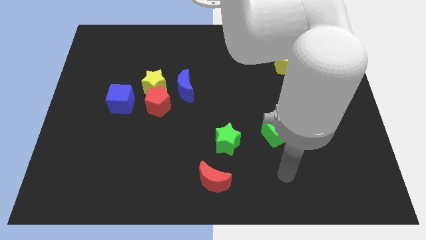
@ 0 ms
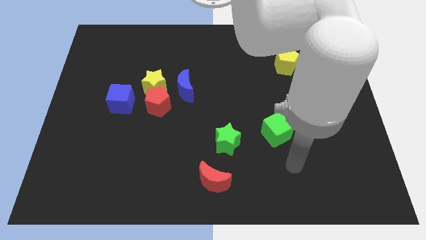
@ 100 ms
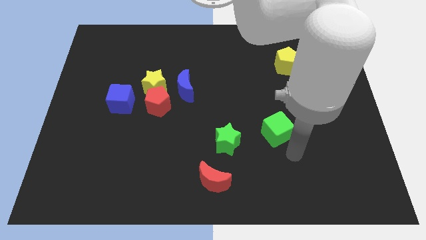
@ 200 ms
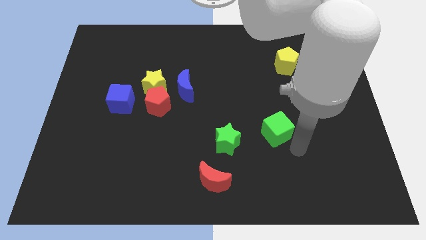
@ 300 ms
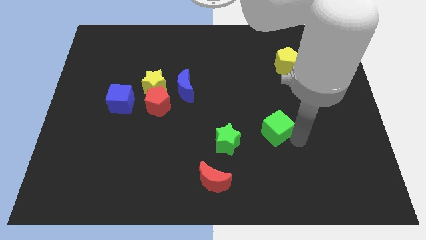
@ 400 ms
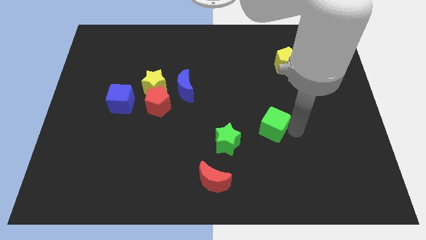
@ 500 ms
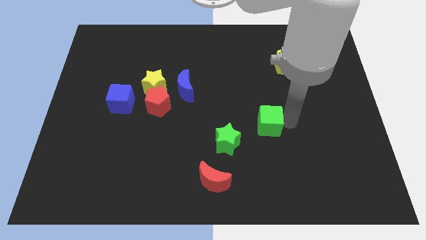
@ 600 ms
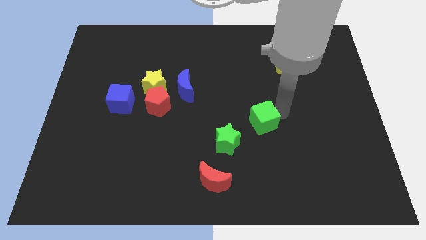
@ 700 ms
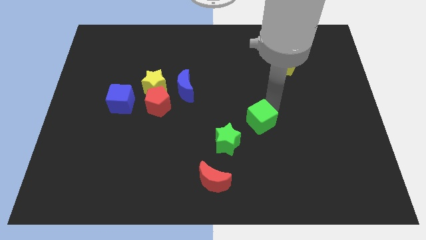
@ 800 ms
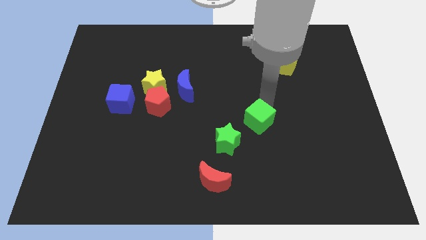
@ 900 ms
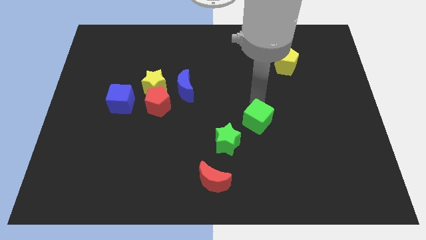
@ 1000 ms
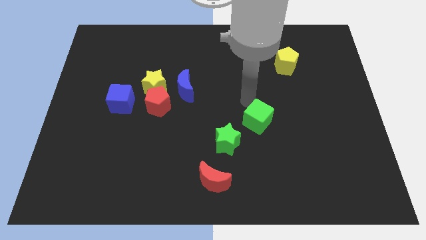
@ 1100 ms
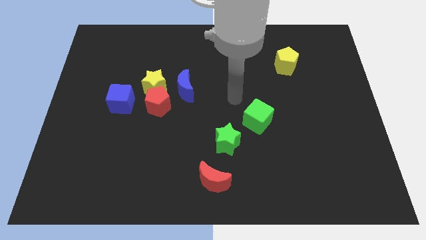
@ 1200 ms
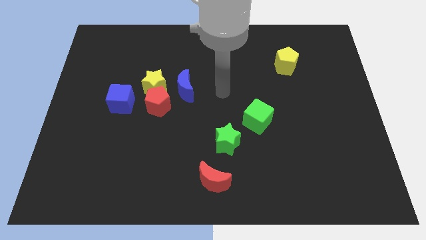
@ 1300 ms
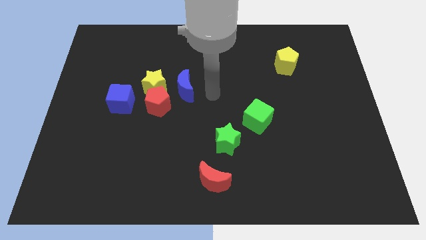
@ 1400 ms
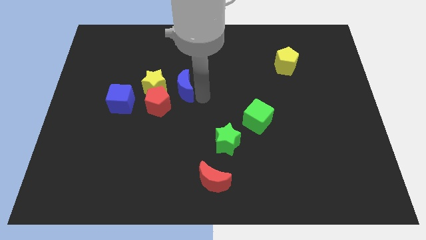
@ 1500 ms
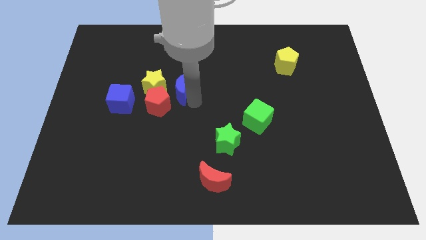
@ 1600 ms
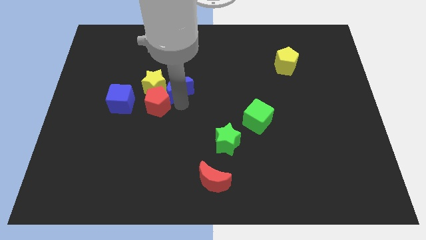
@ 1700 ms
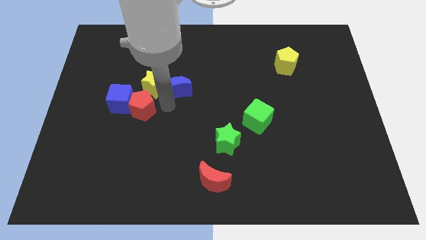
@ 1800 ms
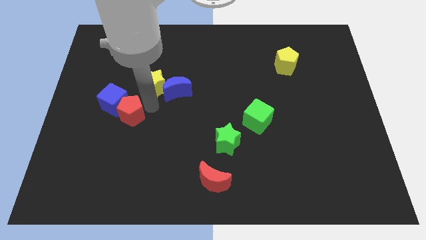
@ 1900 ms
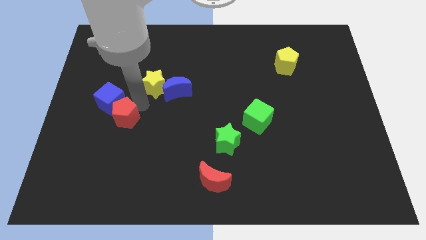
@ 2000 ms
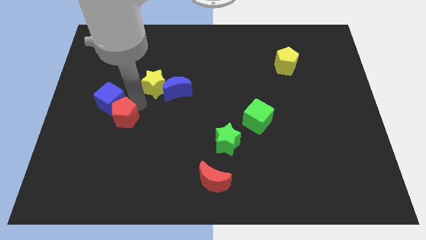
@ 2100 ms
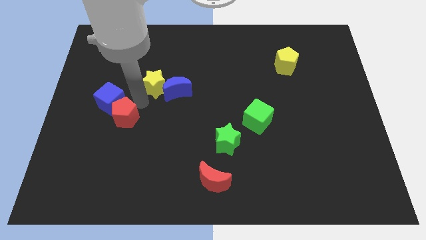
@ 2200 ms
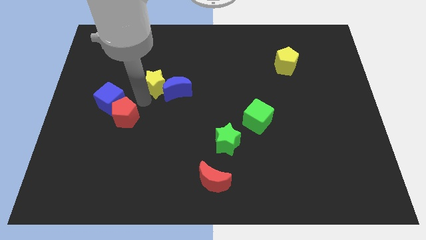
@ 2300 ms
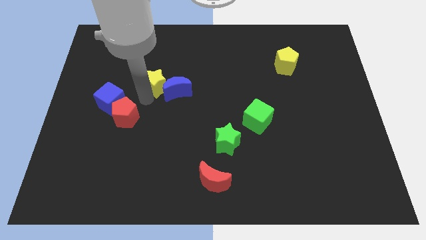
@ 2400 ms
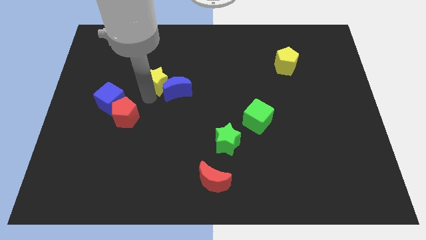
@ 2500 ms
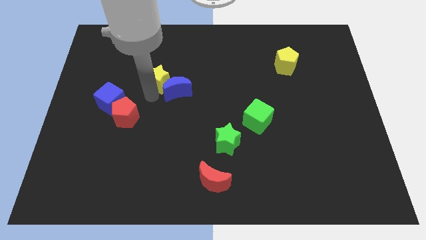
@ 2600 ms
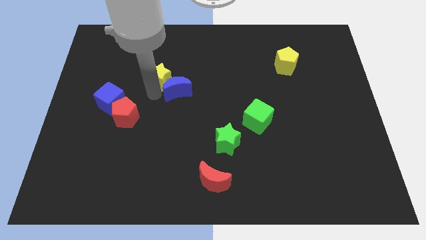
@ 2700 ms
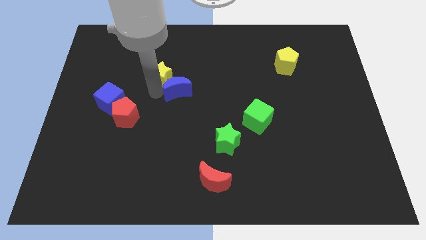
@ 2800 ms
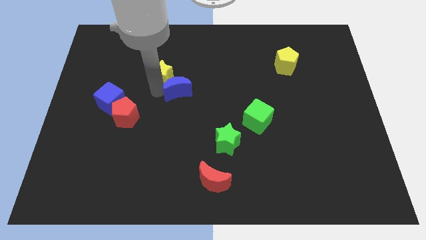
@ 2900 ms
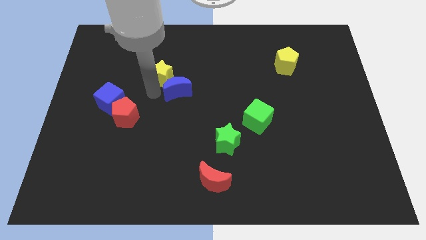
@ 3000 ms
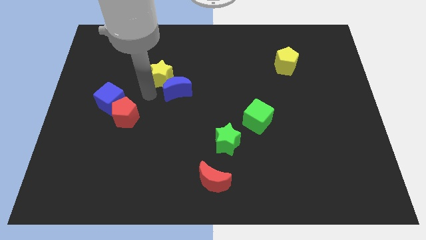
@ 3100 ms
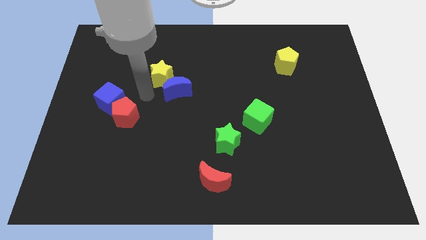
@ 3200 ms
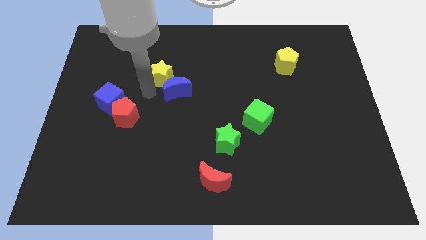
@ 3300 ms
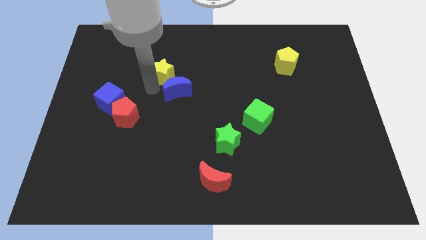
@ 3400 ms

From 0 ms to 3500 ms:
move the yellow star away from the red pentagon, blue moon, and blue cube

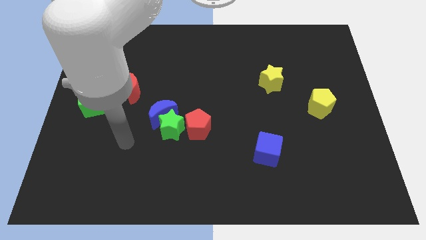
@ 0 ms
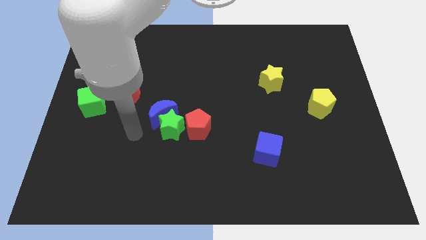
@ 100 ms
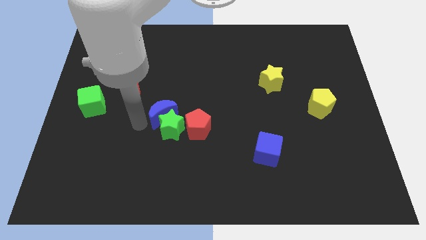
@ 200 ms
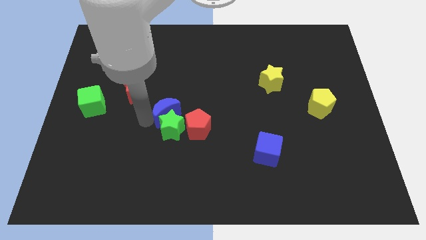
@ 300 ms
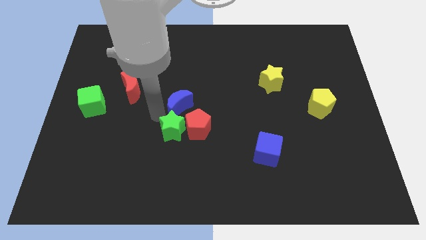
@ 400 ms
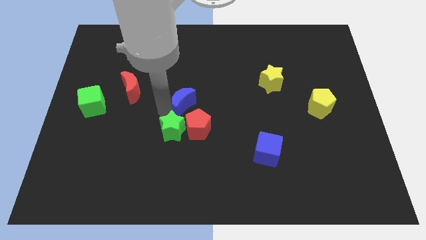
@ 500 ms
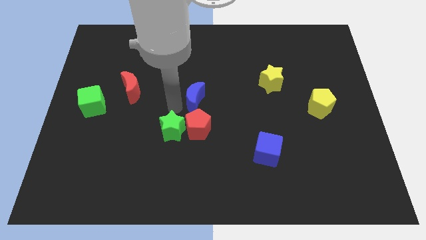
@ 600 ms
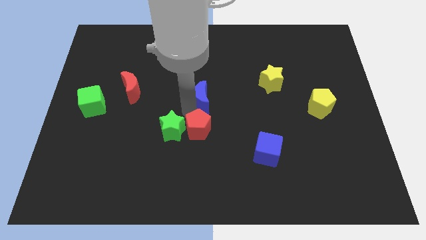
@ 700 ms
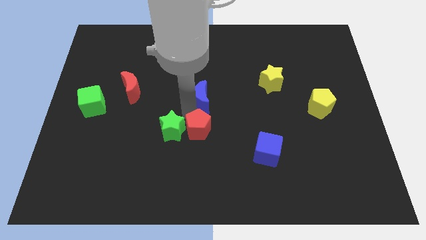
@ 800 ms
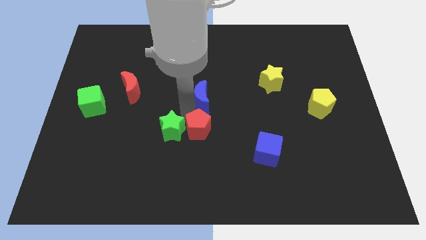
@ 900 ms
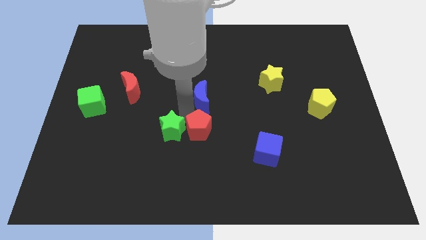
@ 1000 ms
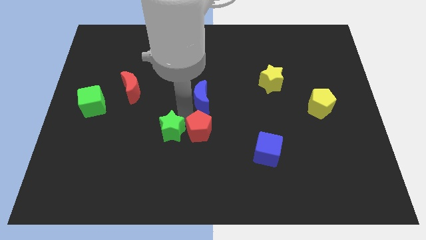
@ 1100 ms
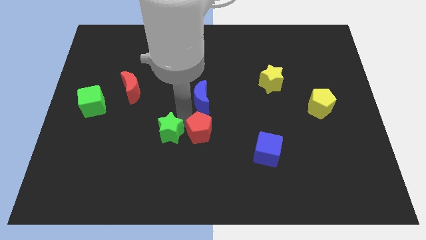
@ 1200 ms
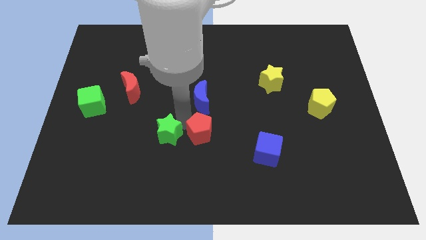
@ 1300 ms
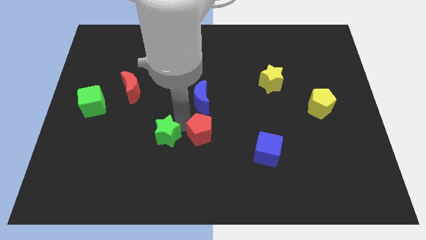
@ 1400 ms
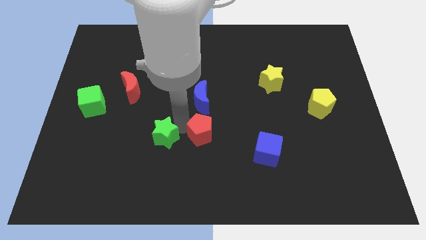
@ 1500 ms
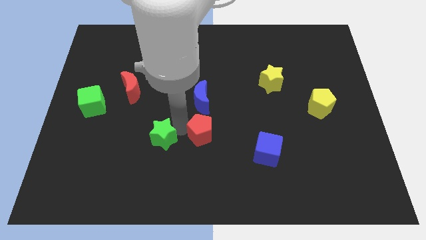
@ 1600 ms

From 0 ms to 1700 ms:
move the green star away from the blue moon and red pentagon

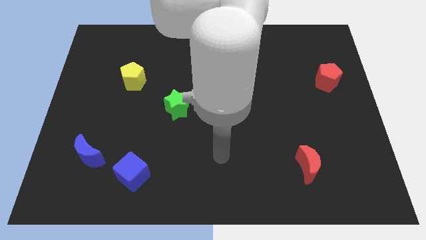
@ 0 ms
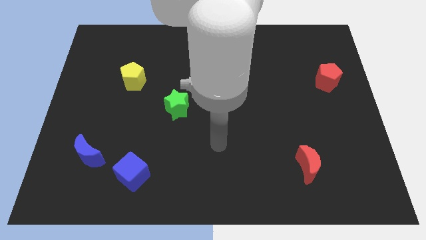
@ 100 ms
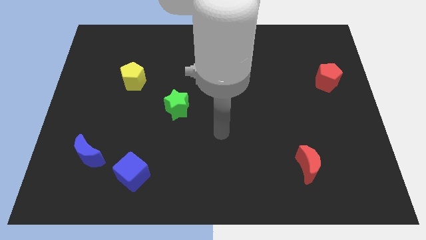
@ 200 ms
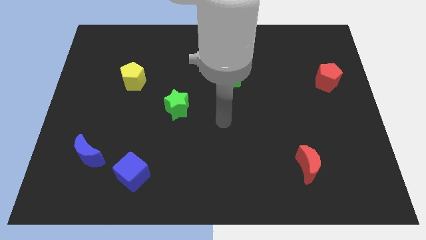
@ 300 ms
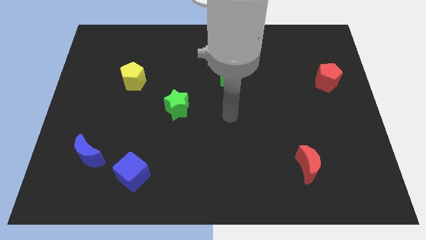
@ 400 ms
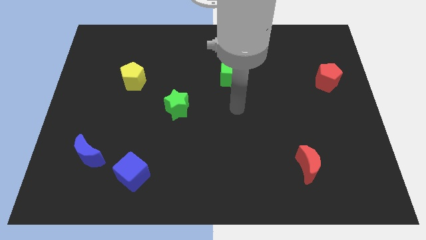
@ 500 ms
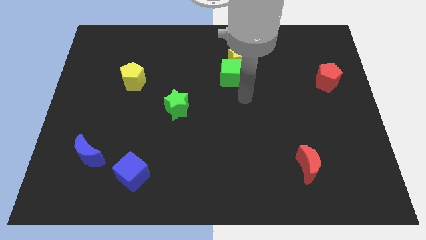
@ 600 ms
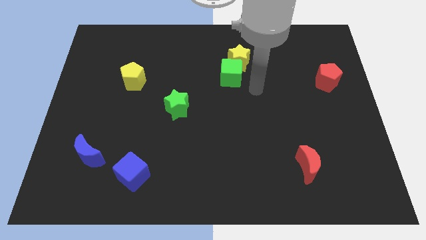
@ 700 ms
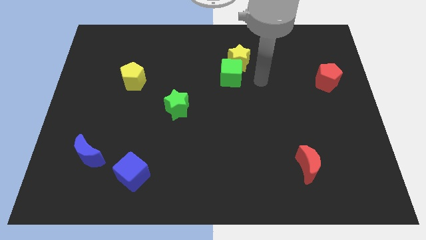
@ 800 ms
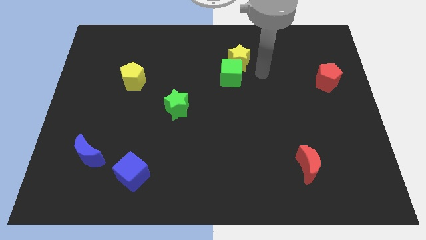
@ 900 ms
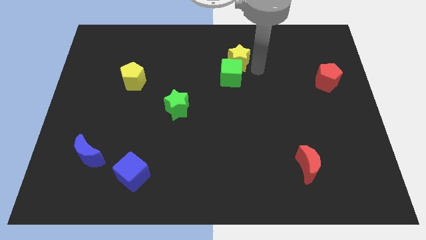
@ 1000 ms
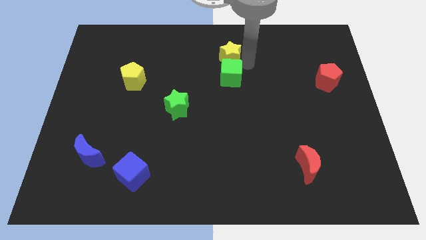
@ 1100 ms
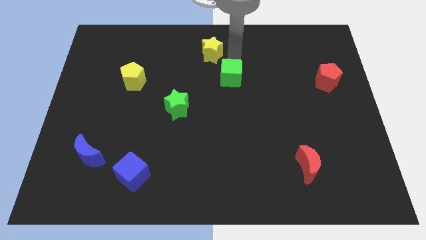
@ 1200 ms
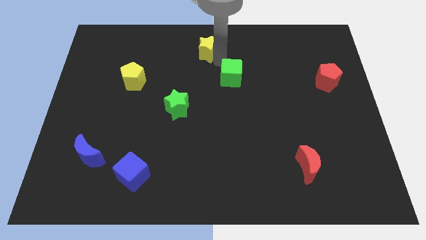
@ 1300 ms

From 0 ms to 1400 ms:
move the green cube away from the yellow star

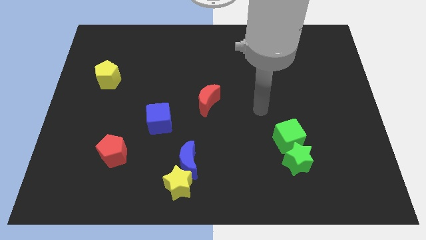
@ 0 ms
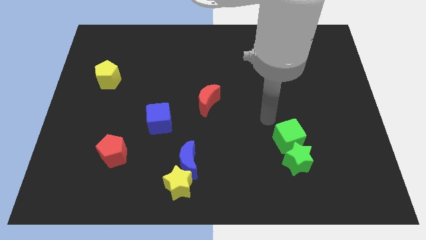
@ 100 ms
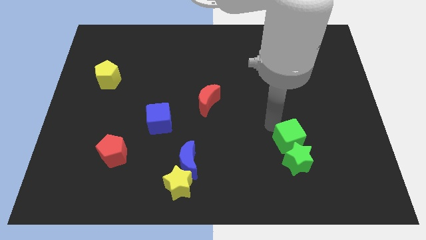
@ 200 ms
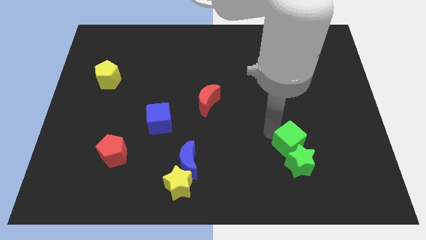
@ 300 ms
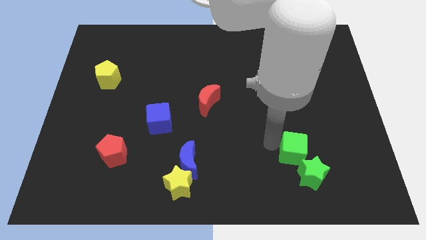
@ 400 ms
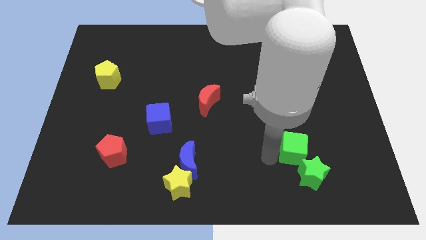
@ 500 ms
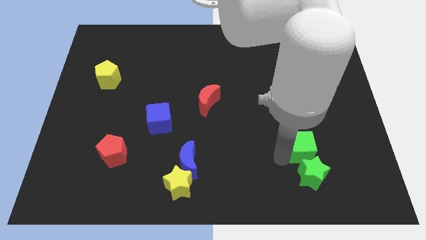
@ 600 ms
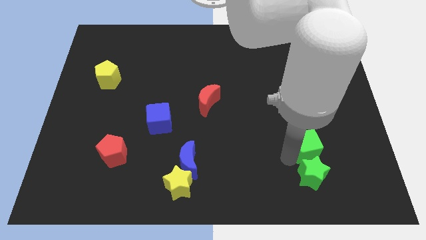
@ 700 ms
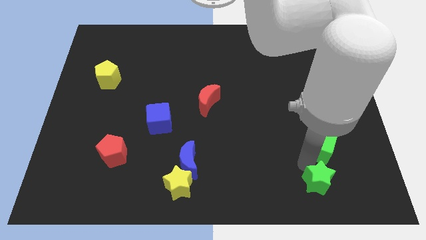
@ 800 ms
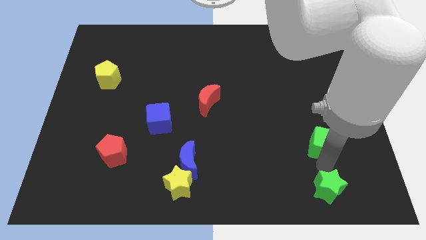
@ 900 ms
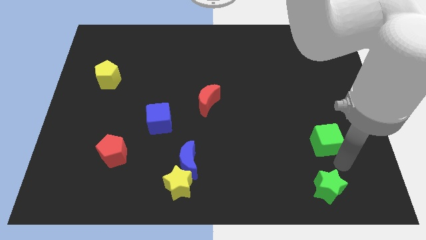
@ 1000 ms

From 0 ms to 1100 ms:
separate the green cube from the green star

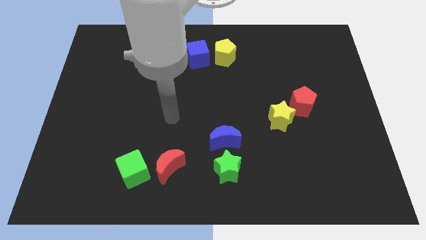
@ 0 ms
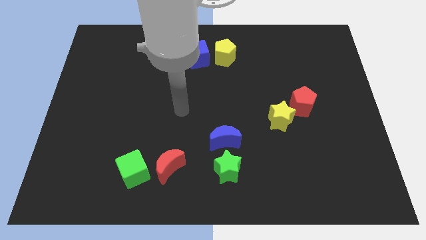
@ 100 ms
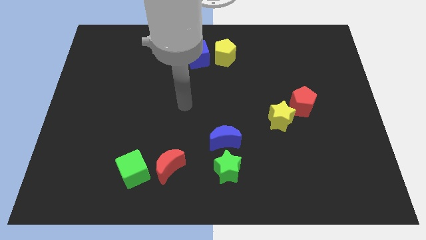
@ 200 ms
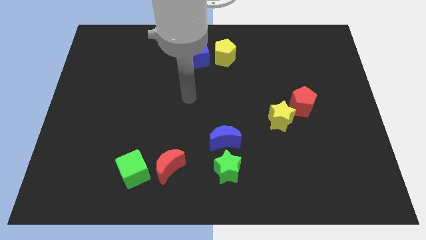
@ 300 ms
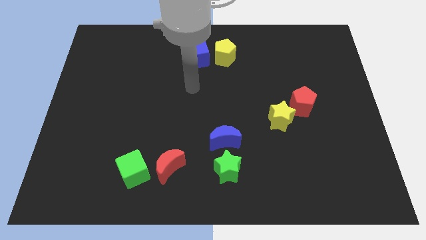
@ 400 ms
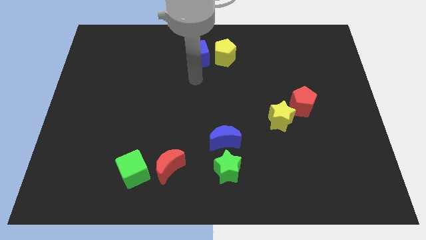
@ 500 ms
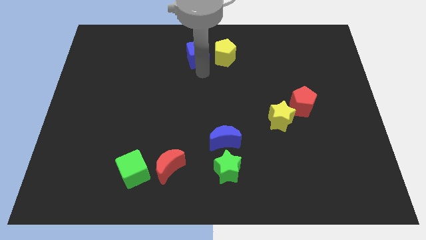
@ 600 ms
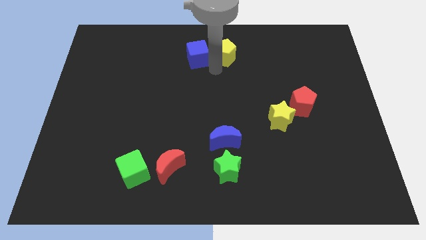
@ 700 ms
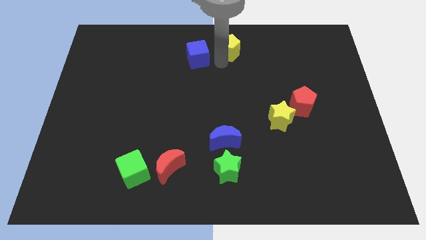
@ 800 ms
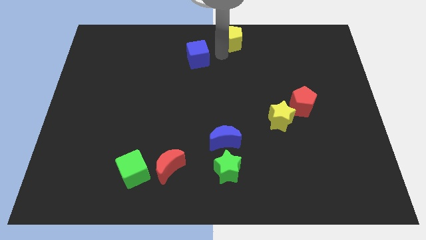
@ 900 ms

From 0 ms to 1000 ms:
move the blue cube away from the yellow pentagon

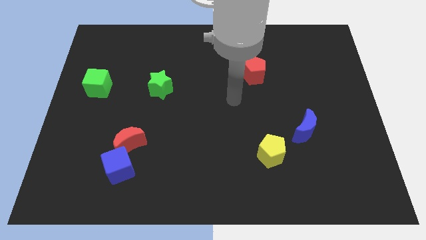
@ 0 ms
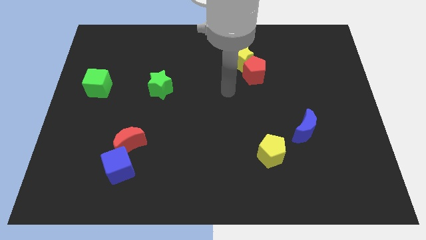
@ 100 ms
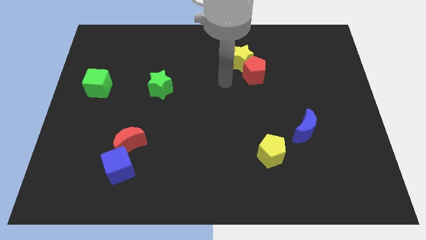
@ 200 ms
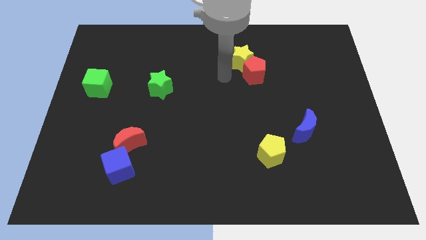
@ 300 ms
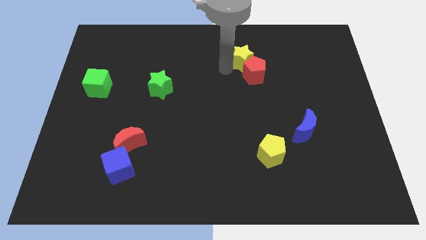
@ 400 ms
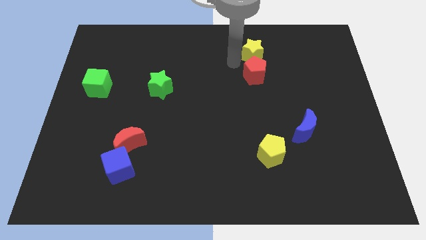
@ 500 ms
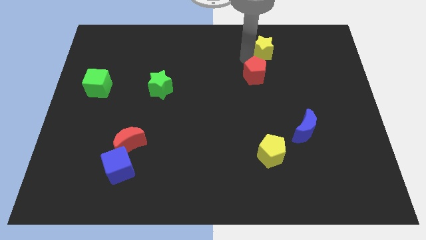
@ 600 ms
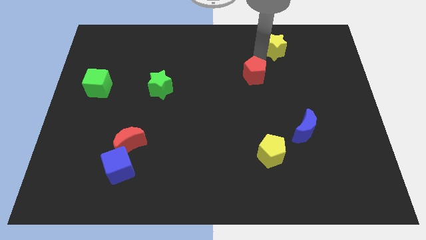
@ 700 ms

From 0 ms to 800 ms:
separate the red pentagon from the yellow star
